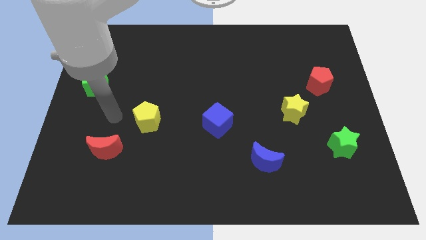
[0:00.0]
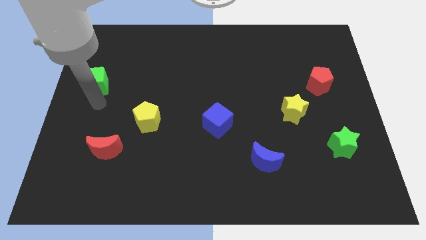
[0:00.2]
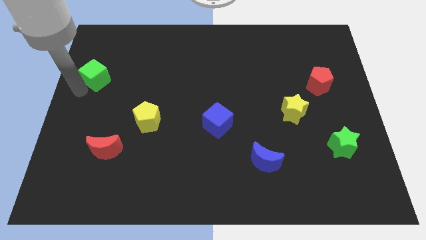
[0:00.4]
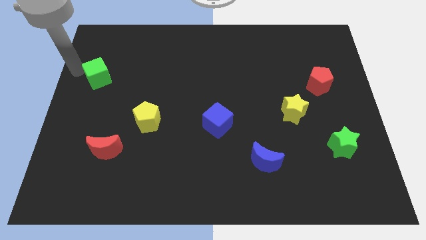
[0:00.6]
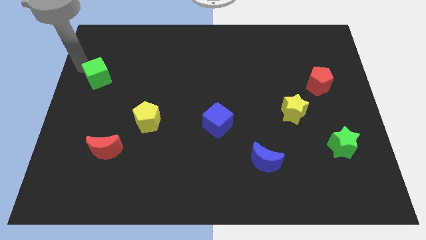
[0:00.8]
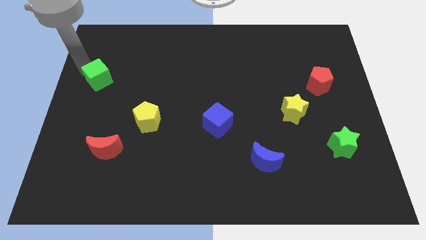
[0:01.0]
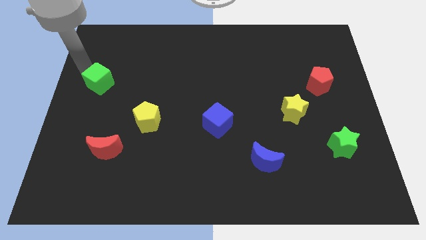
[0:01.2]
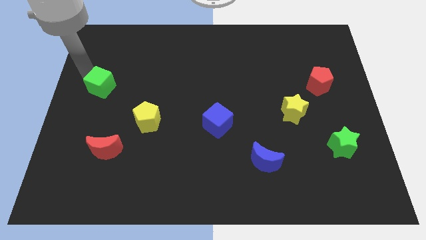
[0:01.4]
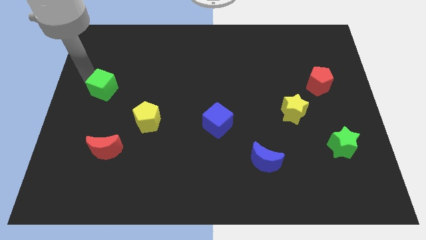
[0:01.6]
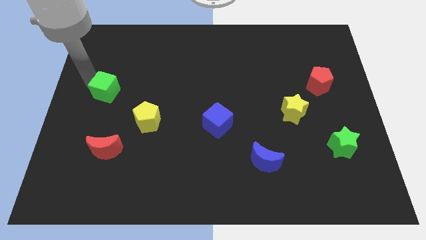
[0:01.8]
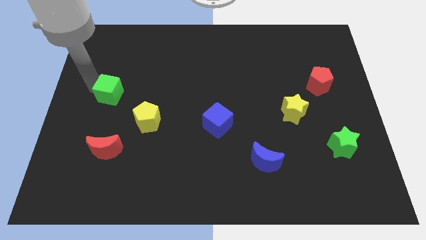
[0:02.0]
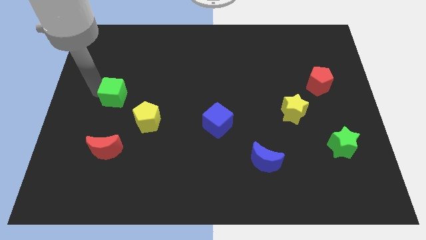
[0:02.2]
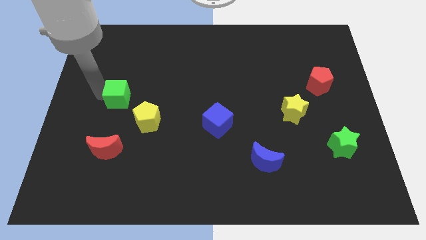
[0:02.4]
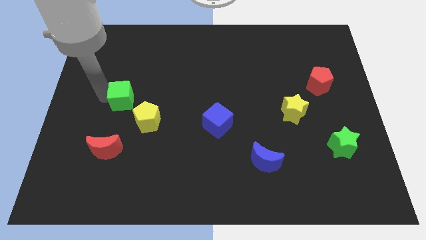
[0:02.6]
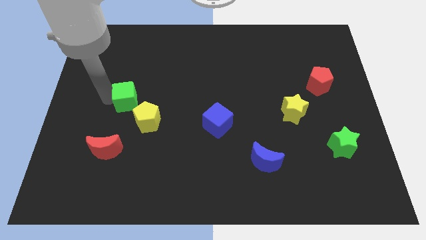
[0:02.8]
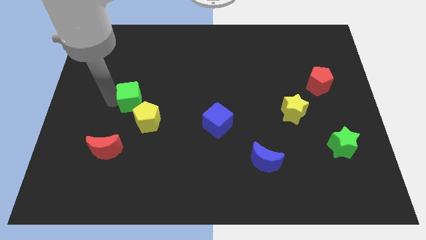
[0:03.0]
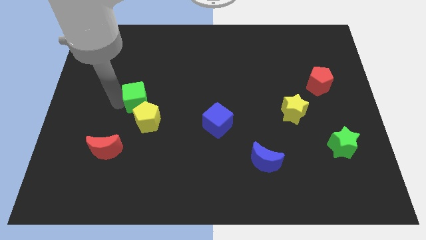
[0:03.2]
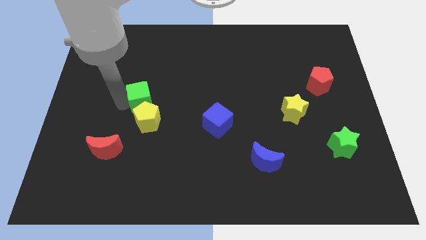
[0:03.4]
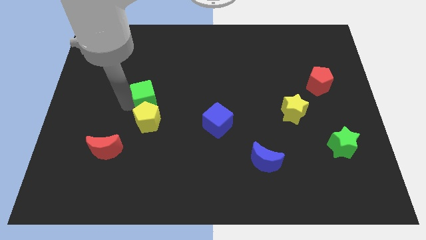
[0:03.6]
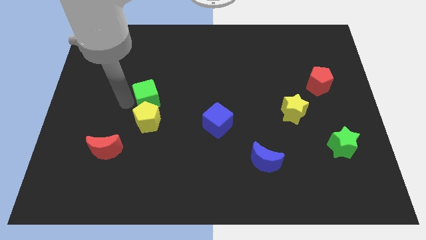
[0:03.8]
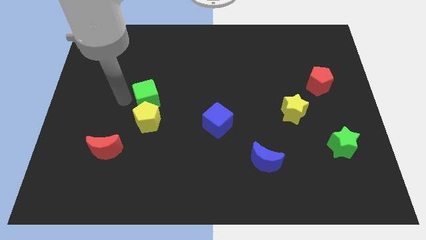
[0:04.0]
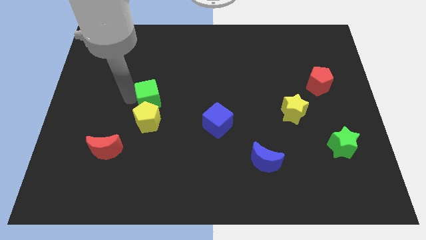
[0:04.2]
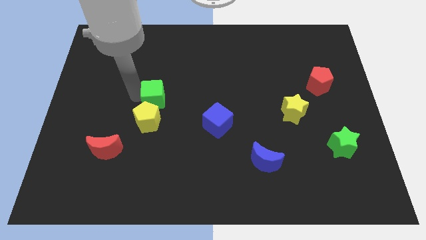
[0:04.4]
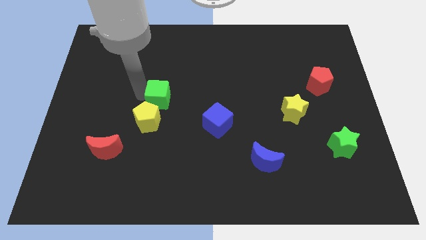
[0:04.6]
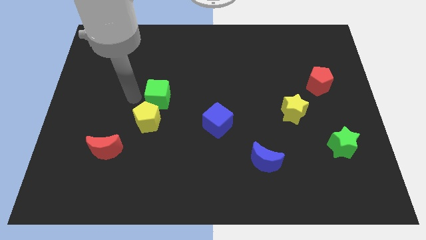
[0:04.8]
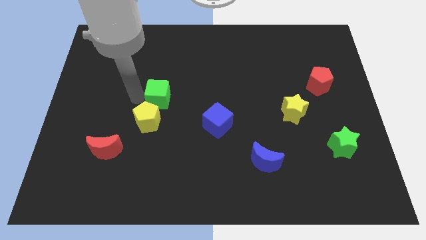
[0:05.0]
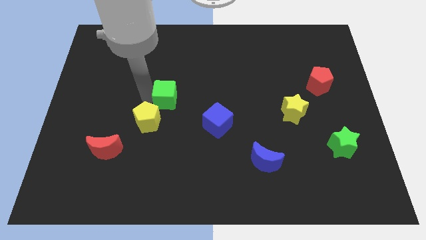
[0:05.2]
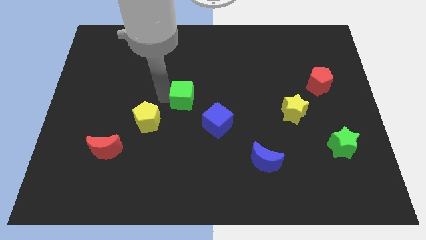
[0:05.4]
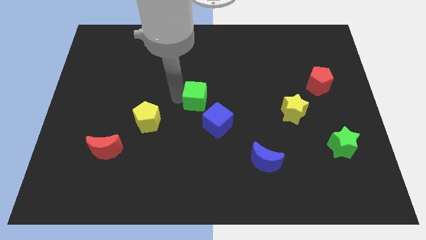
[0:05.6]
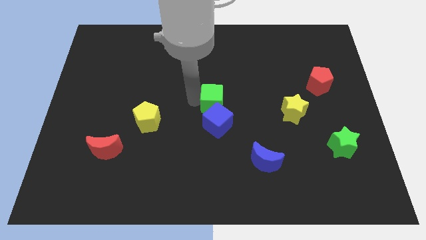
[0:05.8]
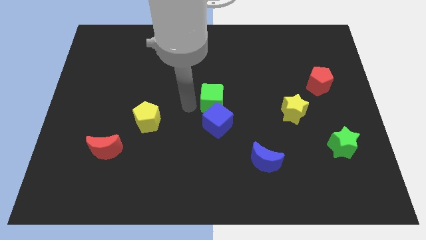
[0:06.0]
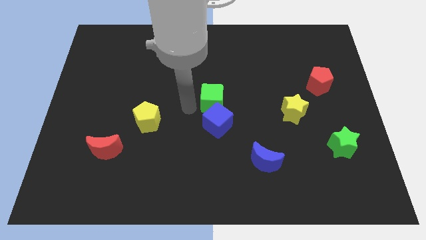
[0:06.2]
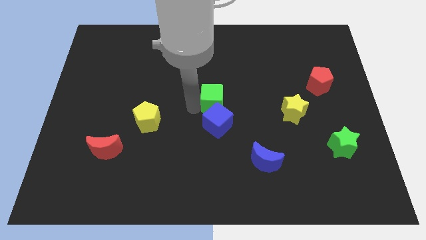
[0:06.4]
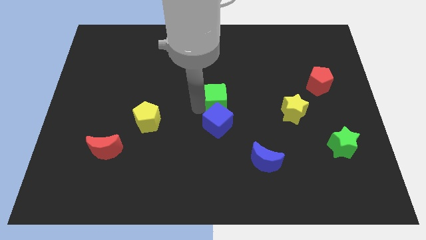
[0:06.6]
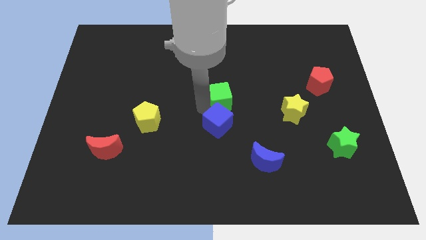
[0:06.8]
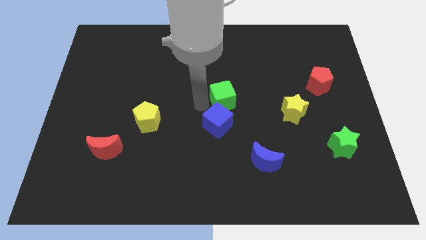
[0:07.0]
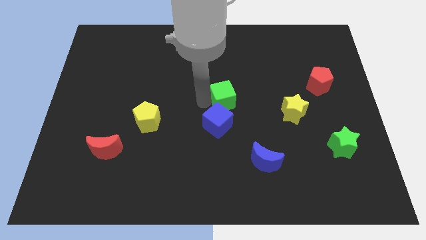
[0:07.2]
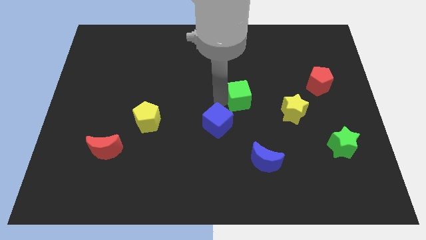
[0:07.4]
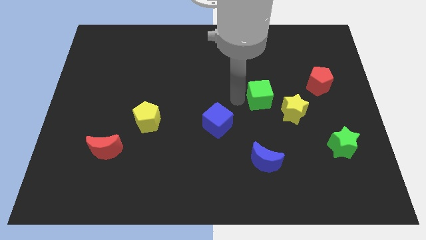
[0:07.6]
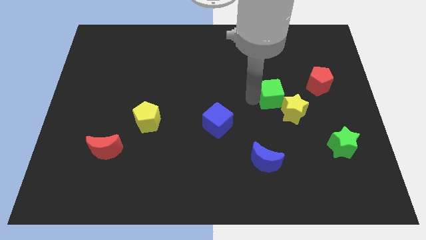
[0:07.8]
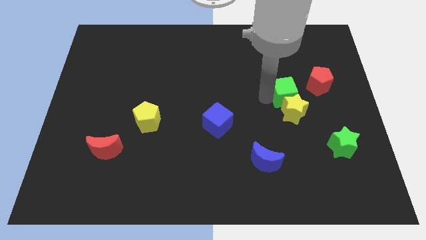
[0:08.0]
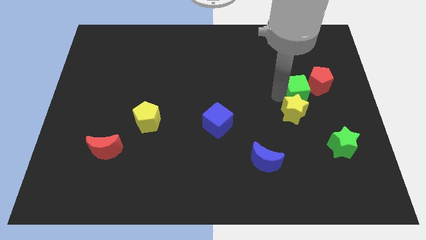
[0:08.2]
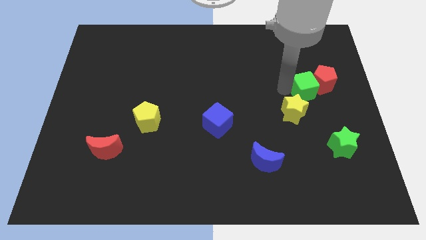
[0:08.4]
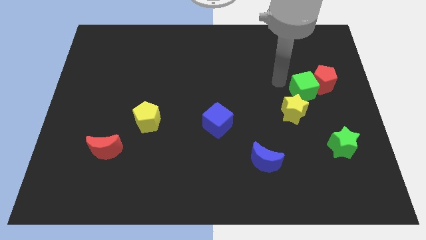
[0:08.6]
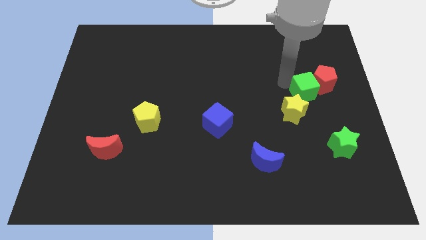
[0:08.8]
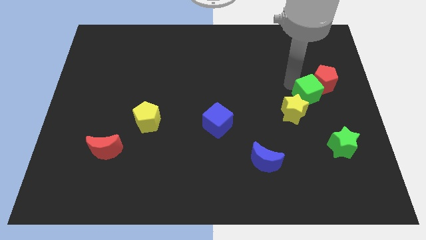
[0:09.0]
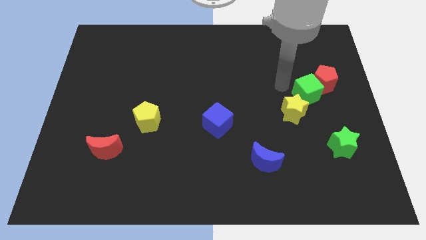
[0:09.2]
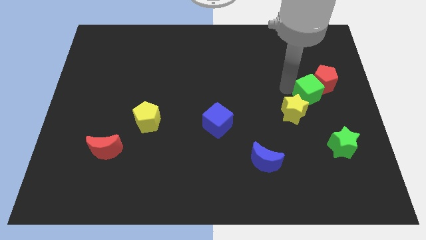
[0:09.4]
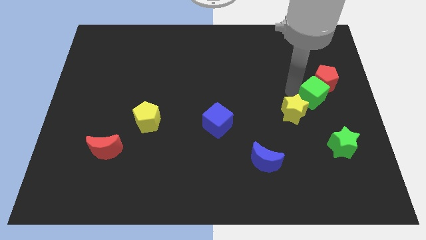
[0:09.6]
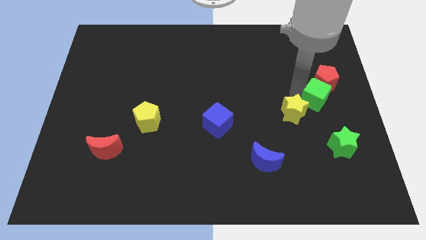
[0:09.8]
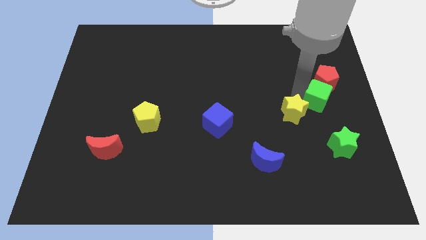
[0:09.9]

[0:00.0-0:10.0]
push the green cube to the right side

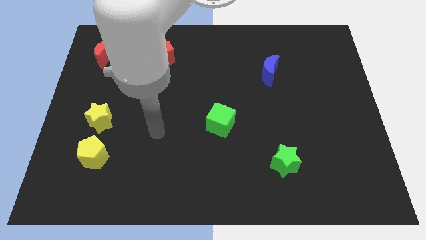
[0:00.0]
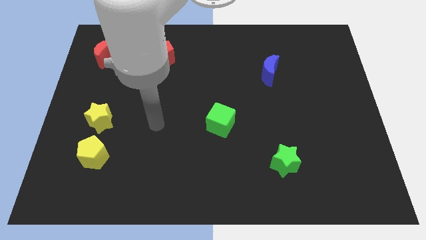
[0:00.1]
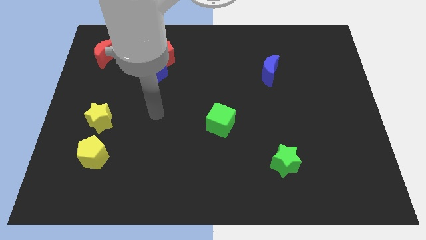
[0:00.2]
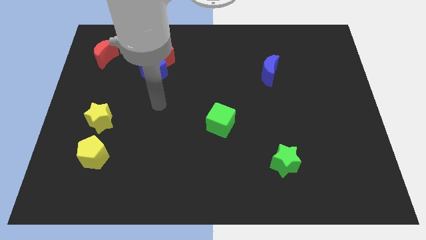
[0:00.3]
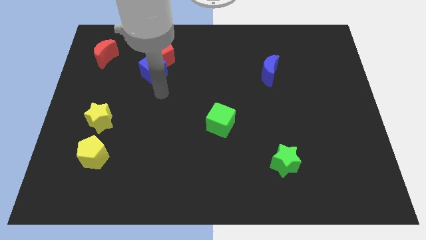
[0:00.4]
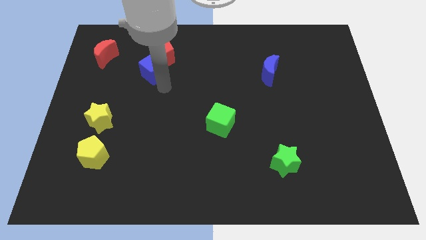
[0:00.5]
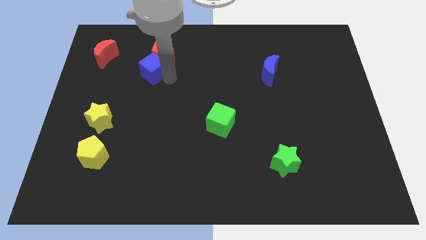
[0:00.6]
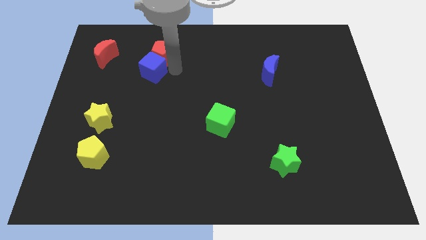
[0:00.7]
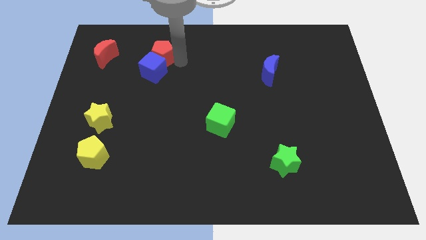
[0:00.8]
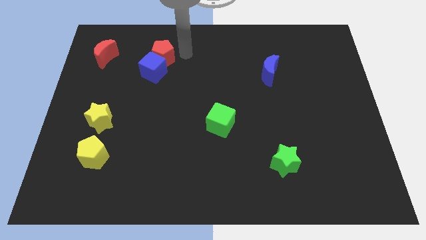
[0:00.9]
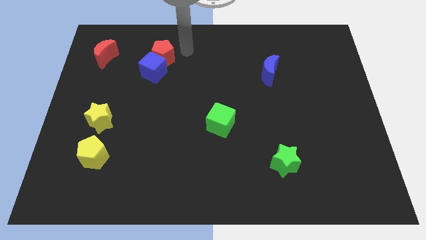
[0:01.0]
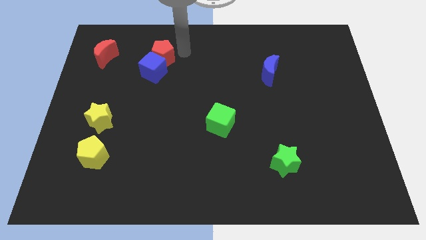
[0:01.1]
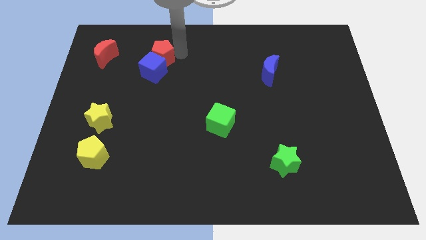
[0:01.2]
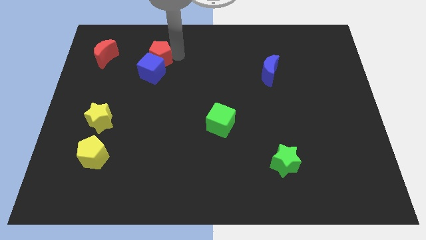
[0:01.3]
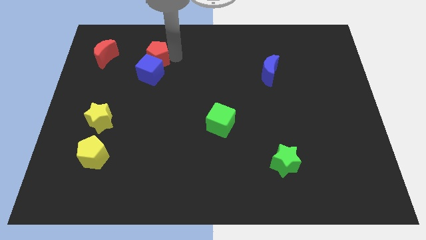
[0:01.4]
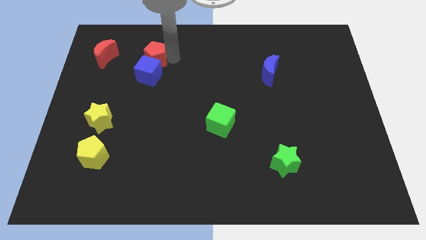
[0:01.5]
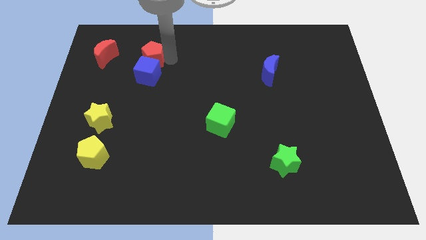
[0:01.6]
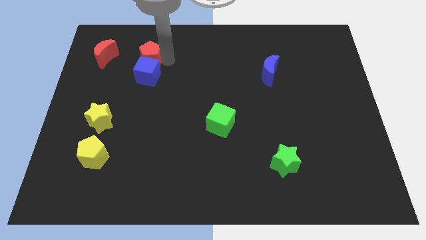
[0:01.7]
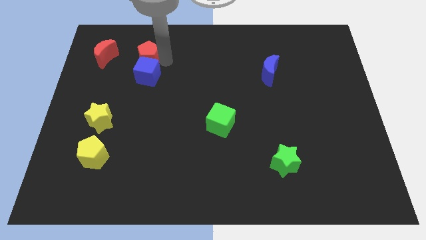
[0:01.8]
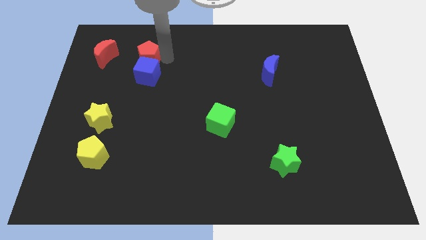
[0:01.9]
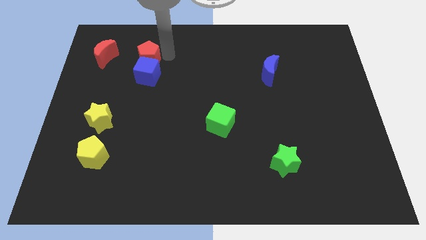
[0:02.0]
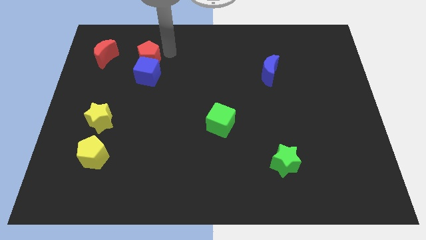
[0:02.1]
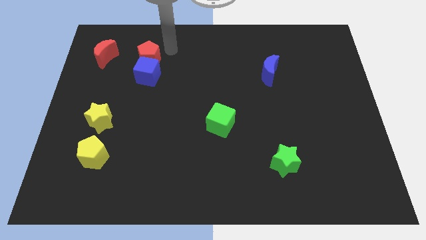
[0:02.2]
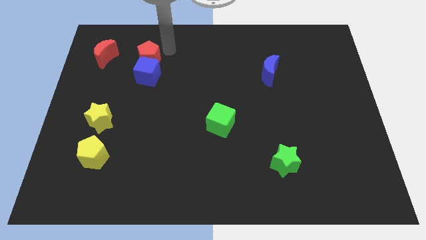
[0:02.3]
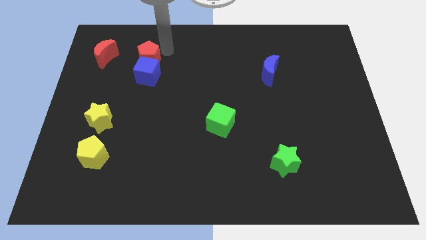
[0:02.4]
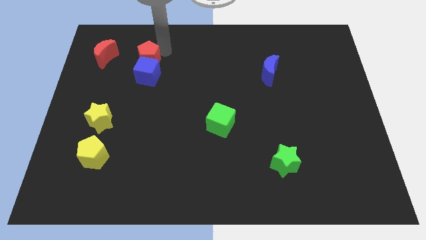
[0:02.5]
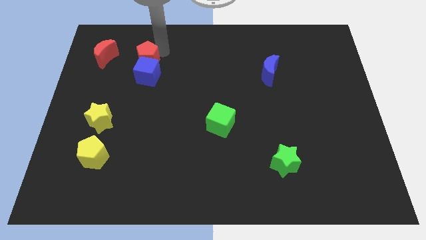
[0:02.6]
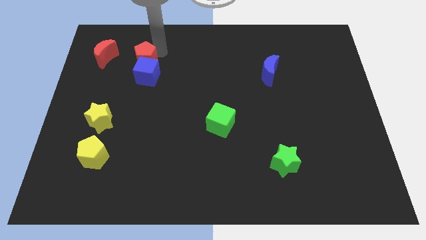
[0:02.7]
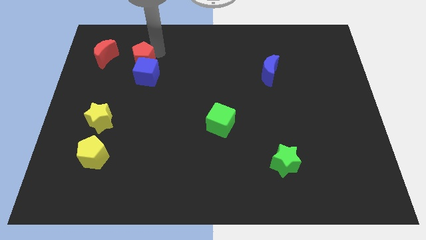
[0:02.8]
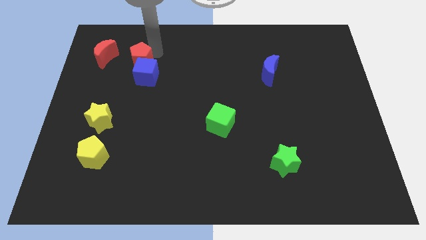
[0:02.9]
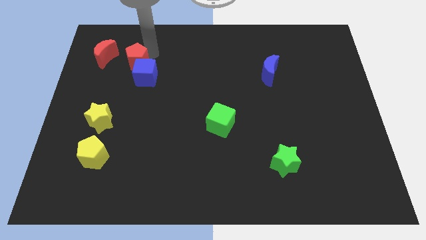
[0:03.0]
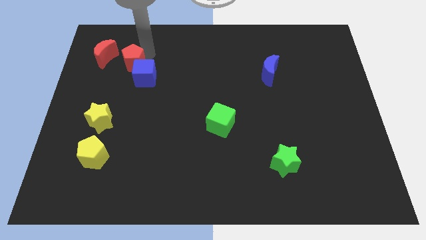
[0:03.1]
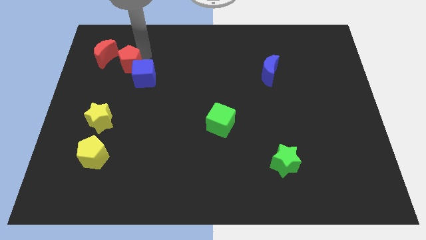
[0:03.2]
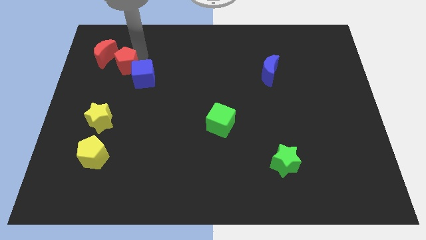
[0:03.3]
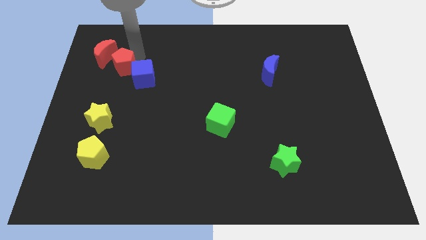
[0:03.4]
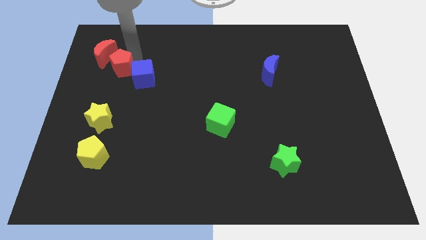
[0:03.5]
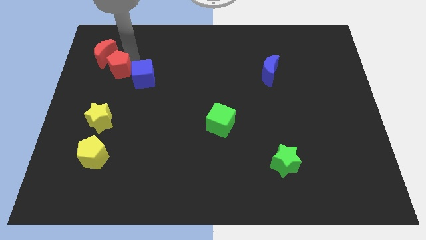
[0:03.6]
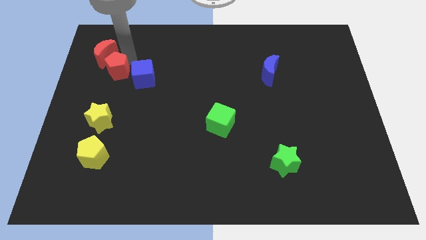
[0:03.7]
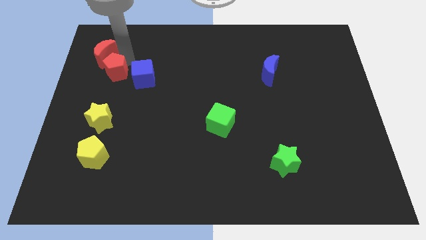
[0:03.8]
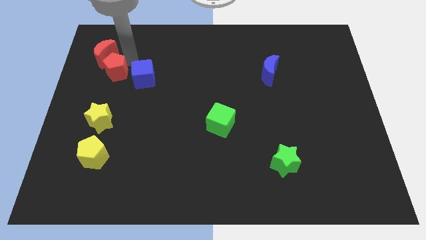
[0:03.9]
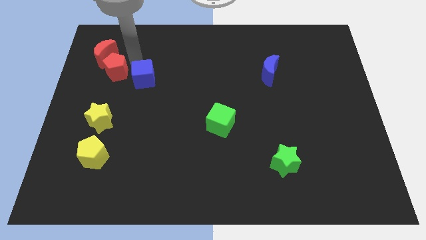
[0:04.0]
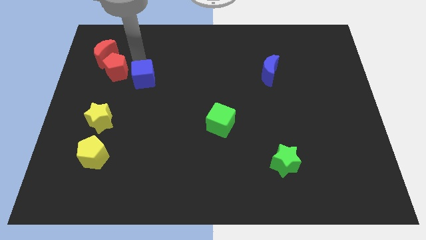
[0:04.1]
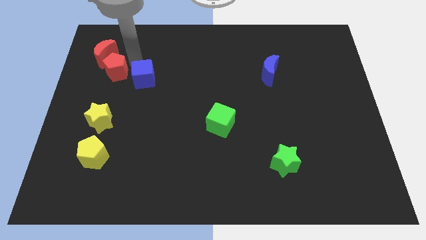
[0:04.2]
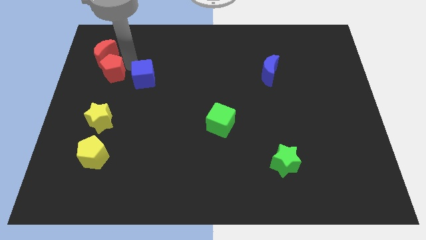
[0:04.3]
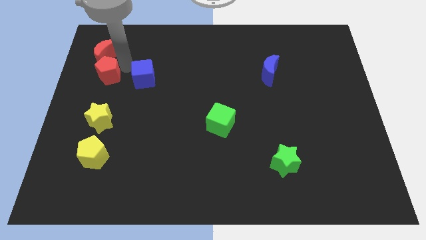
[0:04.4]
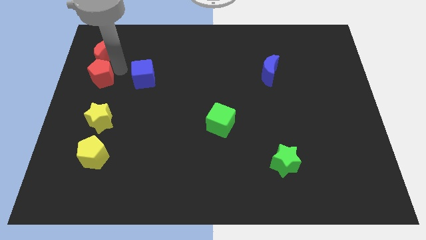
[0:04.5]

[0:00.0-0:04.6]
move the red pentagon to the left side of the board
